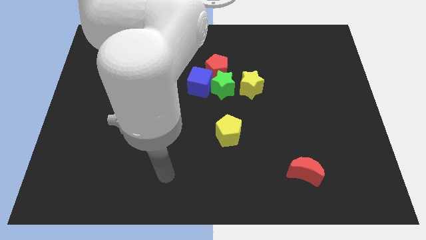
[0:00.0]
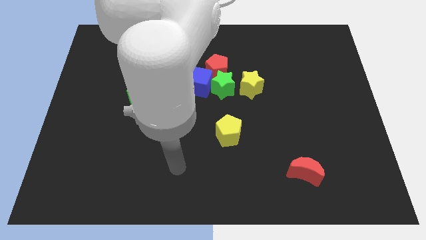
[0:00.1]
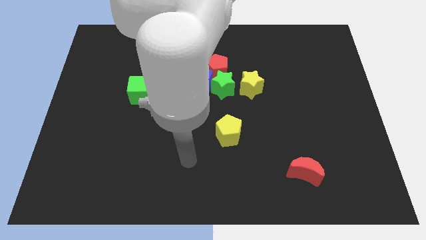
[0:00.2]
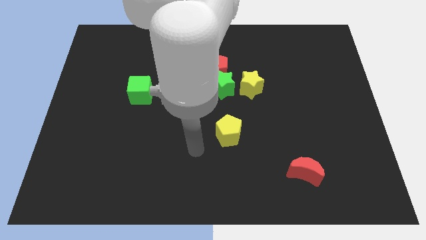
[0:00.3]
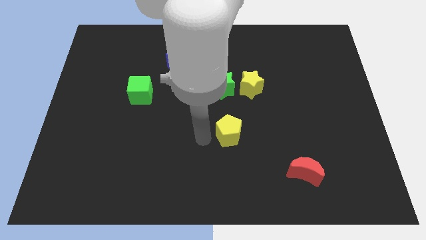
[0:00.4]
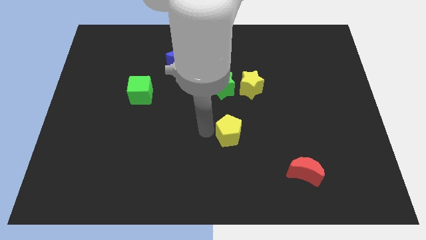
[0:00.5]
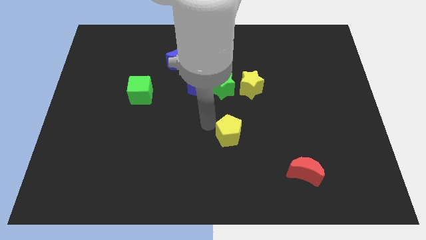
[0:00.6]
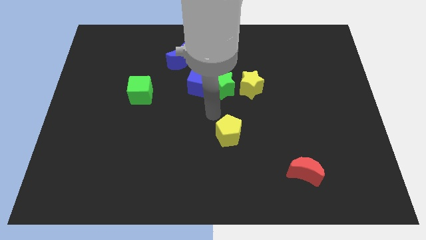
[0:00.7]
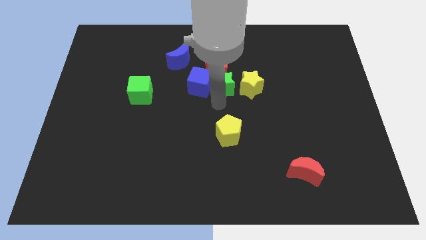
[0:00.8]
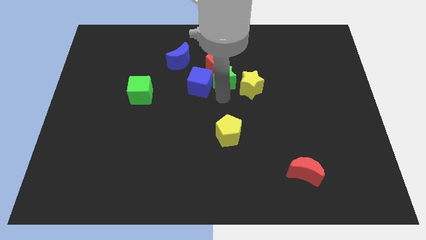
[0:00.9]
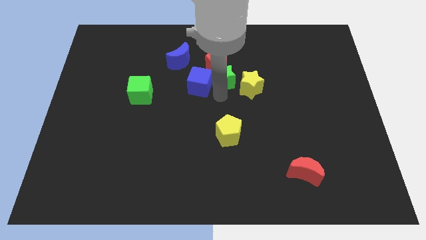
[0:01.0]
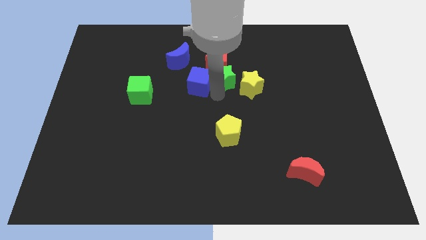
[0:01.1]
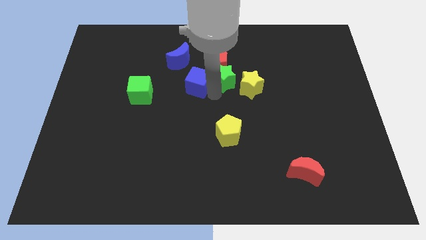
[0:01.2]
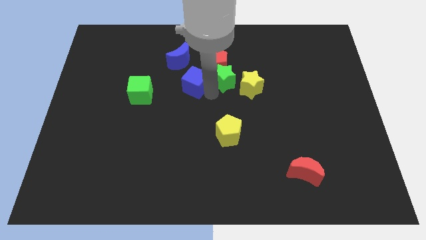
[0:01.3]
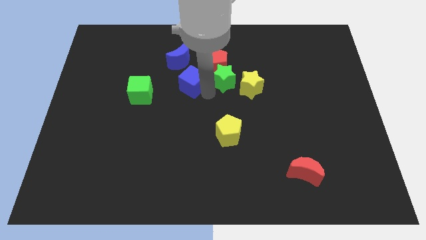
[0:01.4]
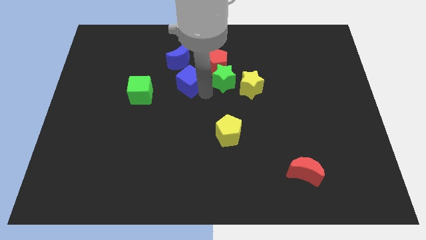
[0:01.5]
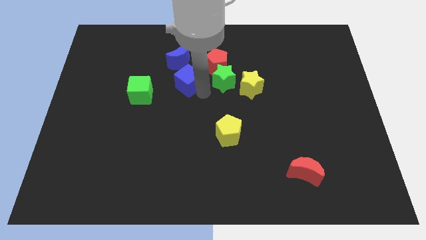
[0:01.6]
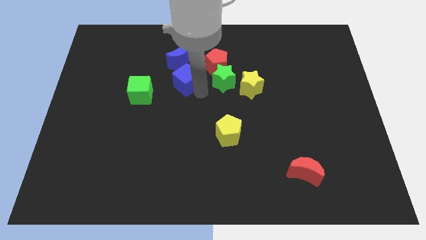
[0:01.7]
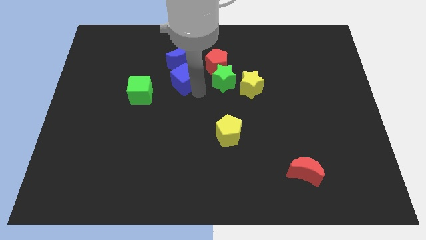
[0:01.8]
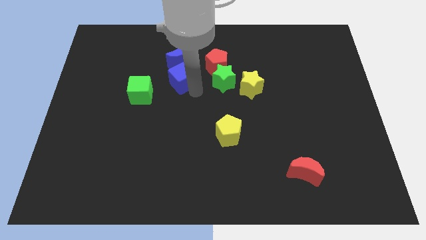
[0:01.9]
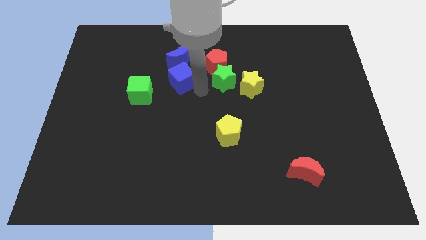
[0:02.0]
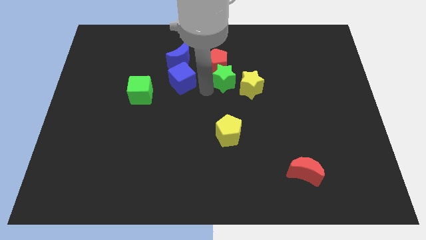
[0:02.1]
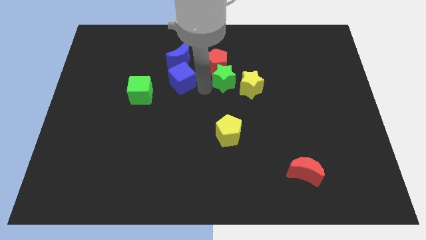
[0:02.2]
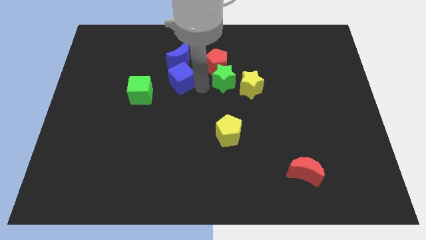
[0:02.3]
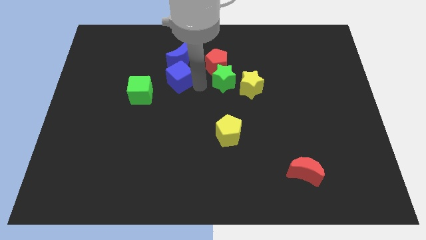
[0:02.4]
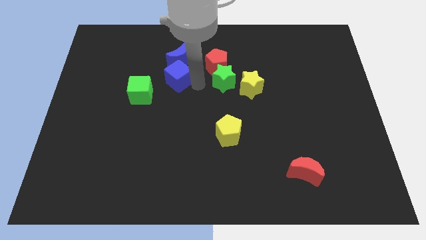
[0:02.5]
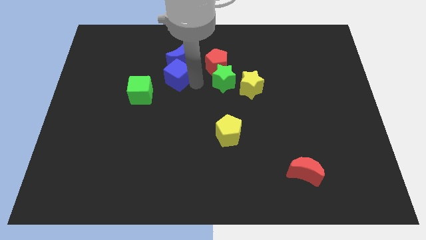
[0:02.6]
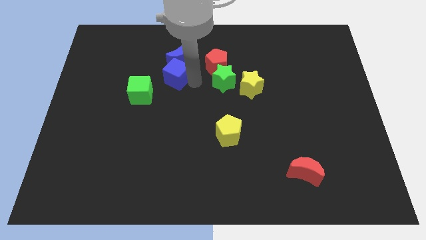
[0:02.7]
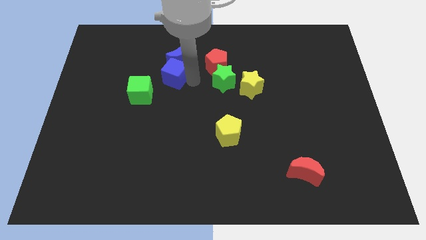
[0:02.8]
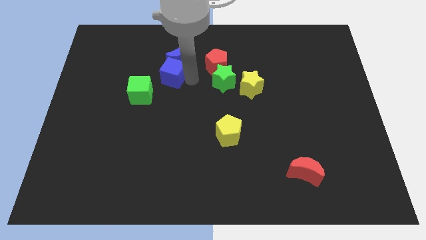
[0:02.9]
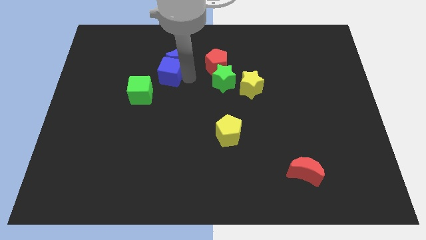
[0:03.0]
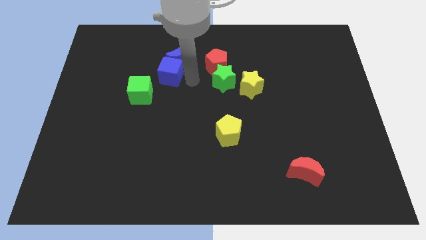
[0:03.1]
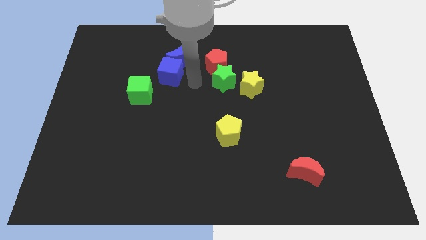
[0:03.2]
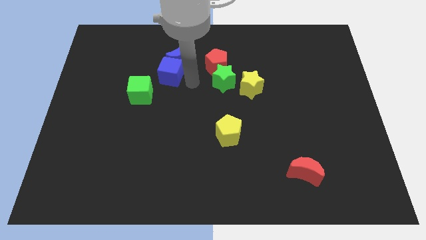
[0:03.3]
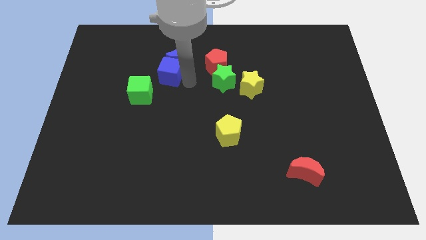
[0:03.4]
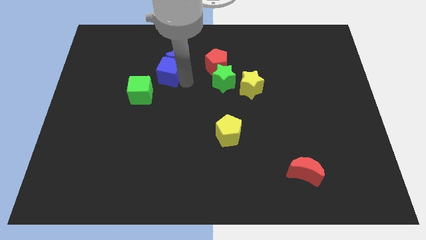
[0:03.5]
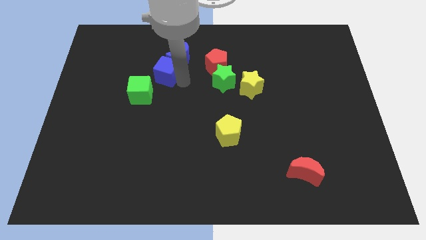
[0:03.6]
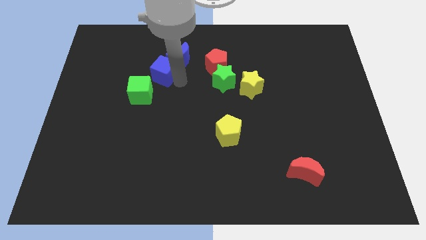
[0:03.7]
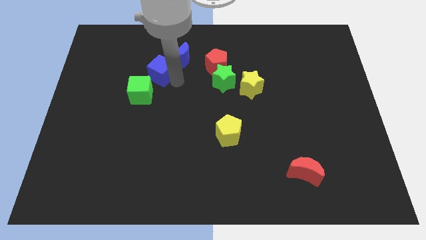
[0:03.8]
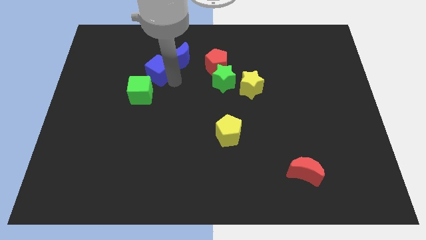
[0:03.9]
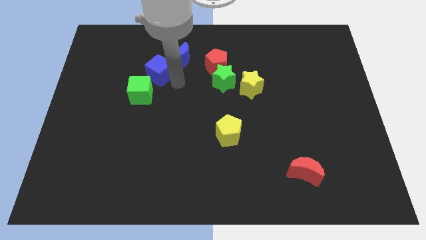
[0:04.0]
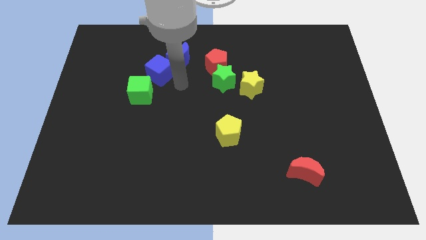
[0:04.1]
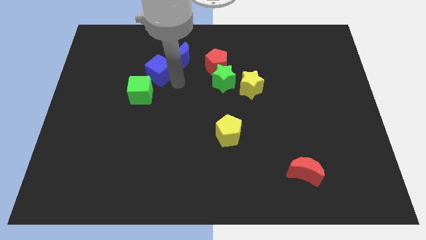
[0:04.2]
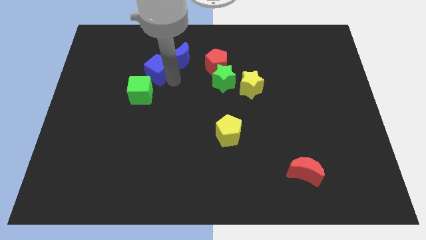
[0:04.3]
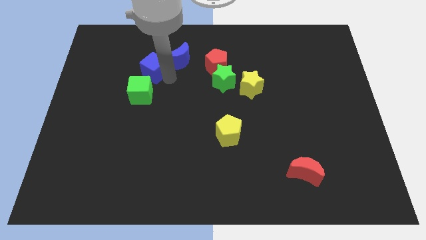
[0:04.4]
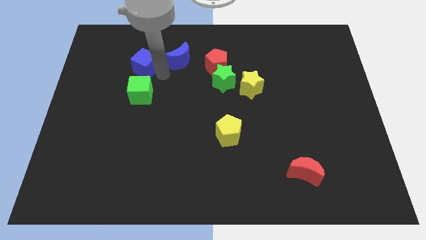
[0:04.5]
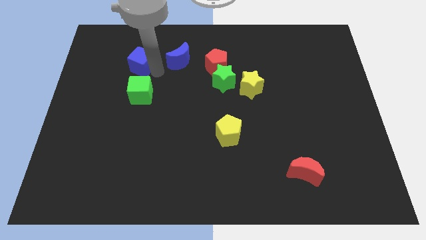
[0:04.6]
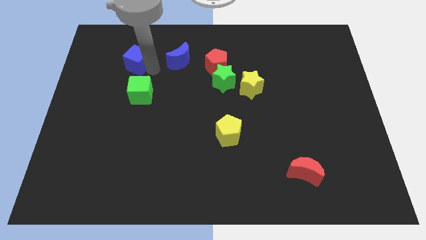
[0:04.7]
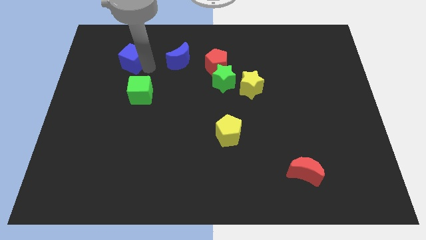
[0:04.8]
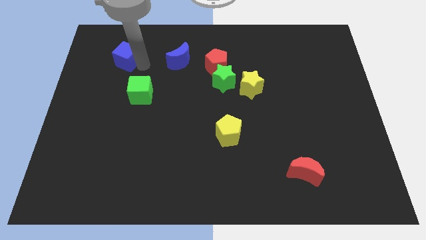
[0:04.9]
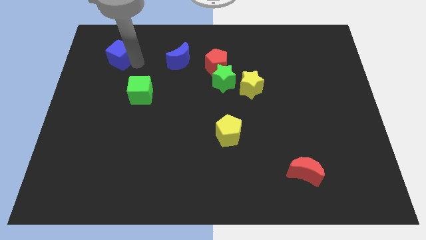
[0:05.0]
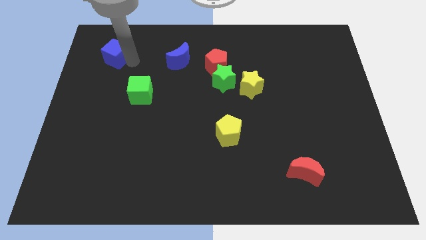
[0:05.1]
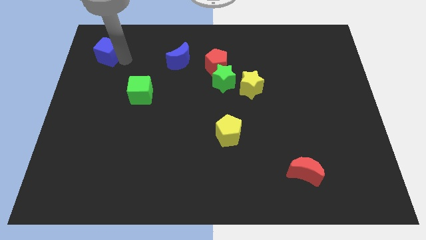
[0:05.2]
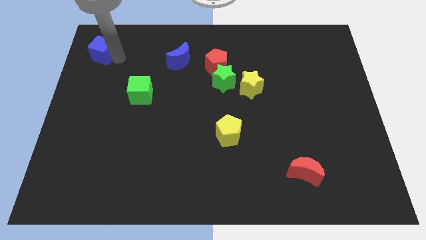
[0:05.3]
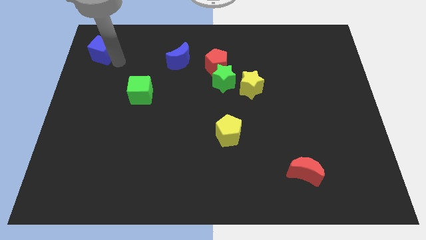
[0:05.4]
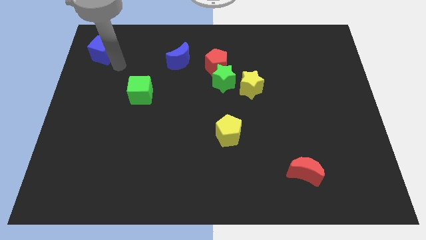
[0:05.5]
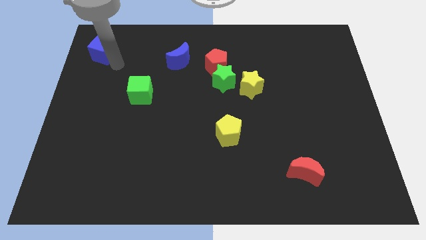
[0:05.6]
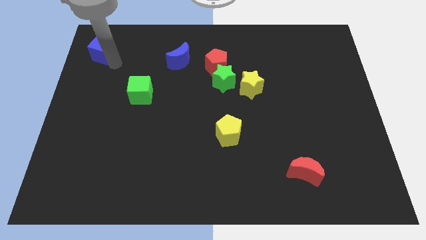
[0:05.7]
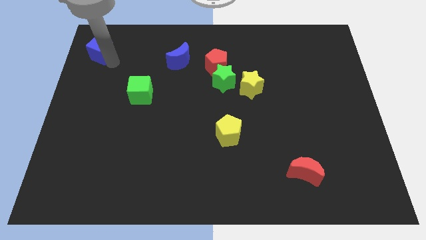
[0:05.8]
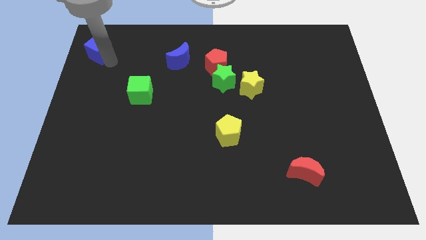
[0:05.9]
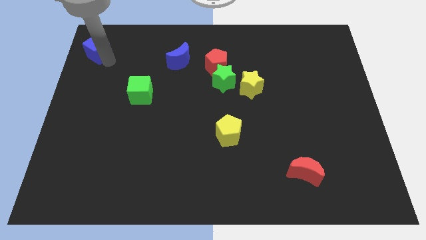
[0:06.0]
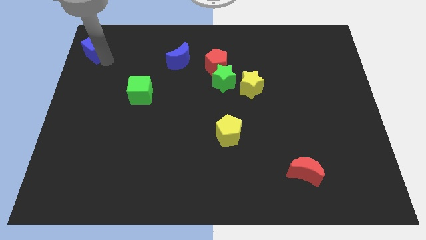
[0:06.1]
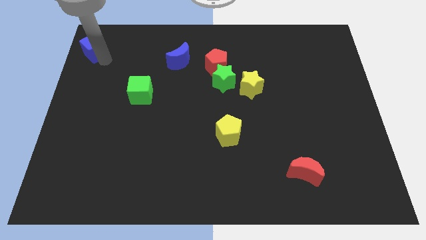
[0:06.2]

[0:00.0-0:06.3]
slide the blue cube to the top left corner

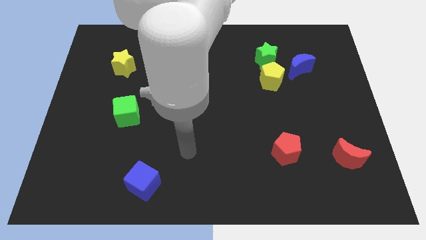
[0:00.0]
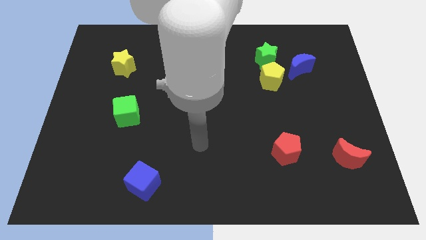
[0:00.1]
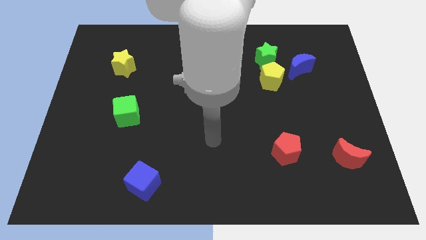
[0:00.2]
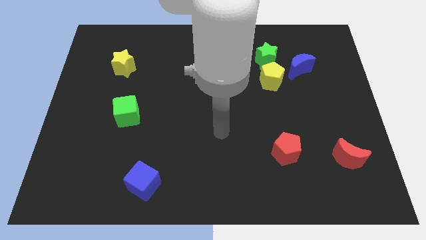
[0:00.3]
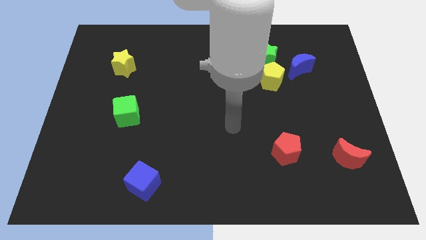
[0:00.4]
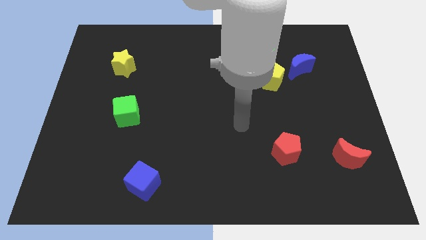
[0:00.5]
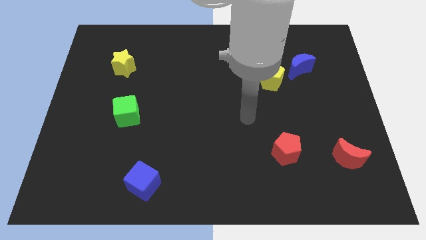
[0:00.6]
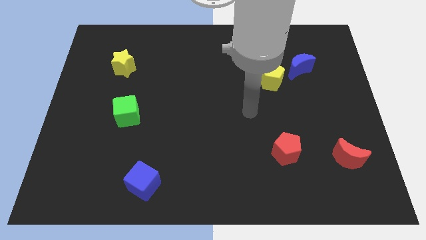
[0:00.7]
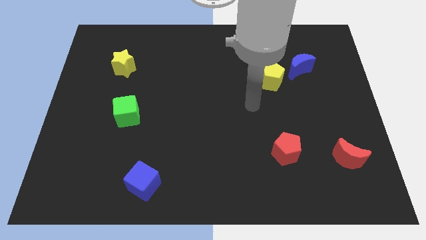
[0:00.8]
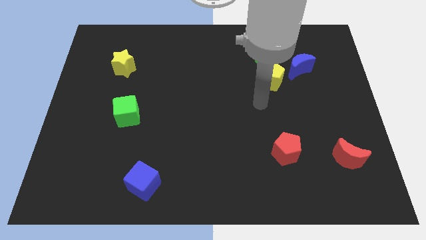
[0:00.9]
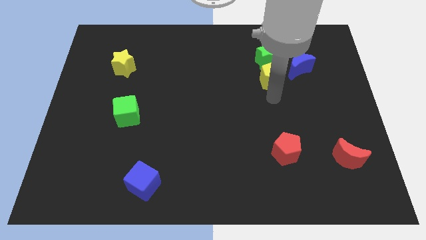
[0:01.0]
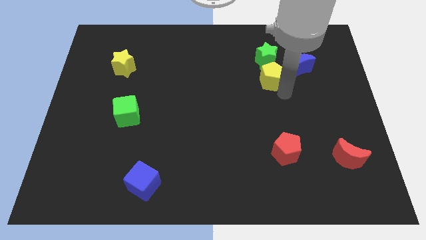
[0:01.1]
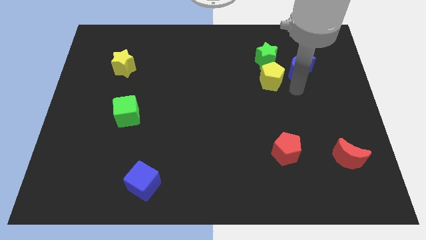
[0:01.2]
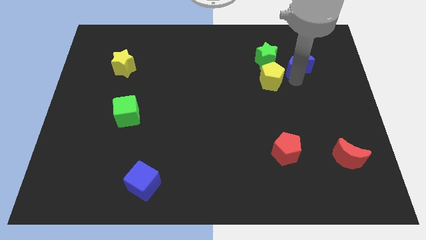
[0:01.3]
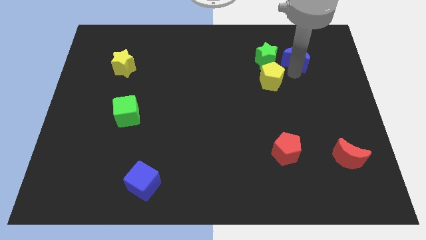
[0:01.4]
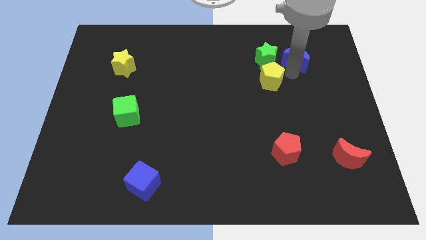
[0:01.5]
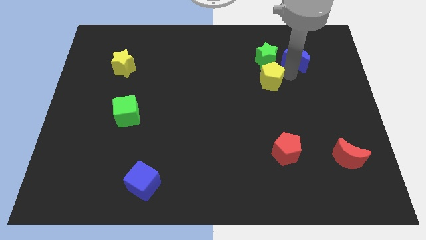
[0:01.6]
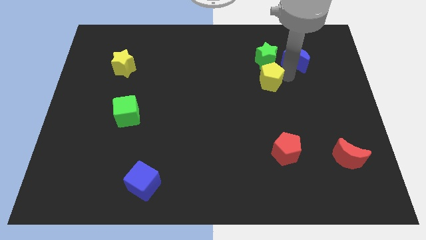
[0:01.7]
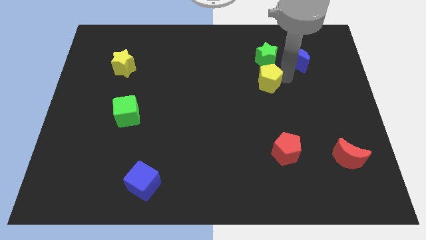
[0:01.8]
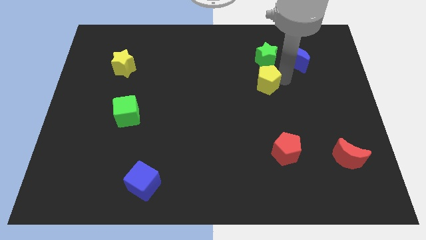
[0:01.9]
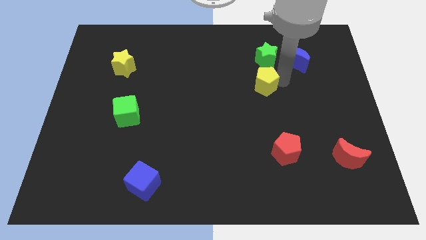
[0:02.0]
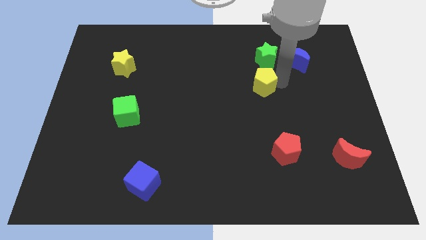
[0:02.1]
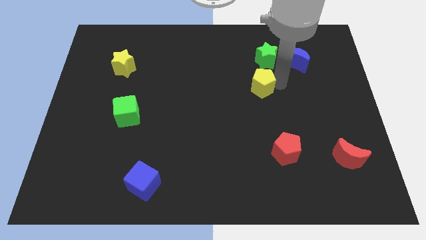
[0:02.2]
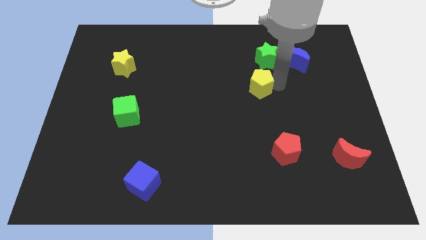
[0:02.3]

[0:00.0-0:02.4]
slide the yellow pentagon to the center of the board
